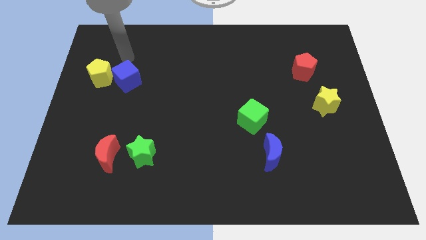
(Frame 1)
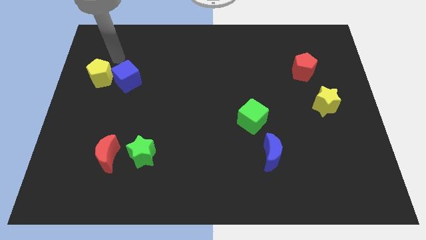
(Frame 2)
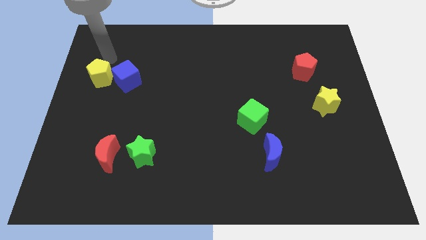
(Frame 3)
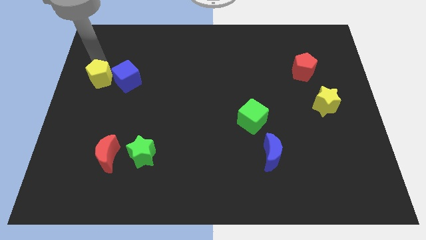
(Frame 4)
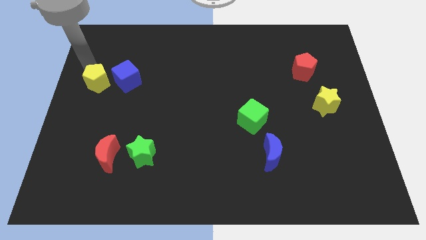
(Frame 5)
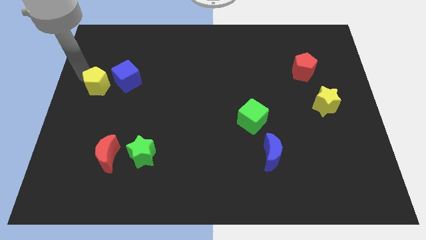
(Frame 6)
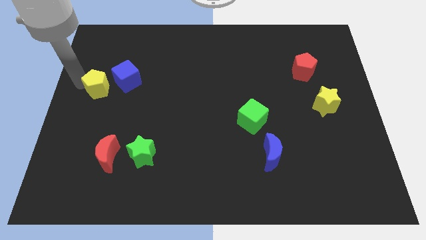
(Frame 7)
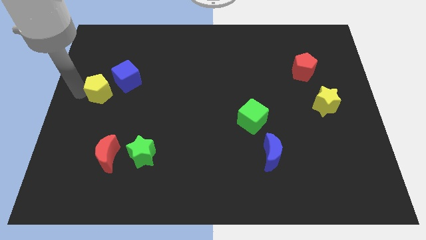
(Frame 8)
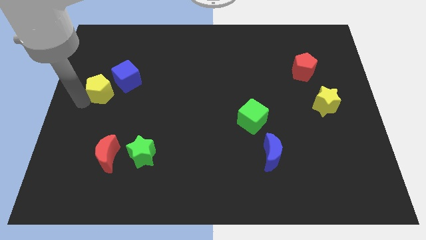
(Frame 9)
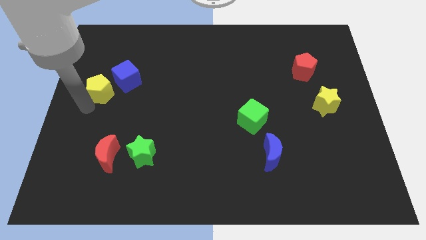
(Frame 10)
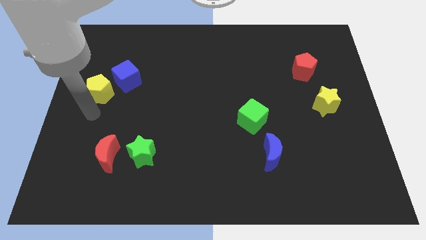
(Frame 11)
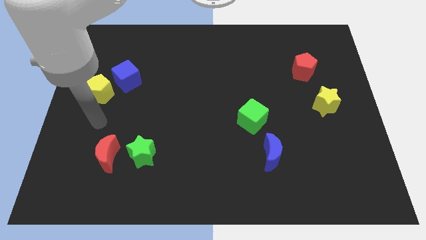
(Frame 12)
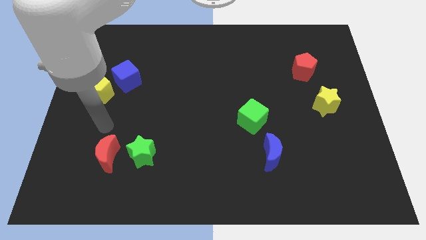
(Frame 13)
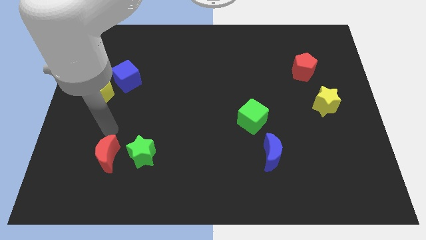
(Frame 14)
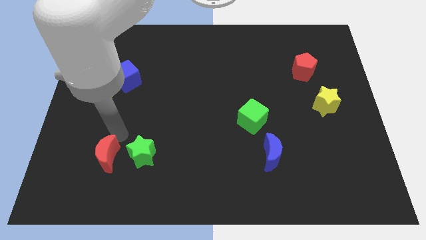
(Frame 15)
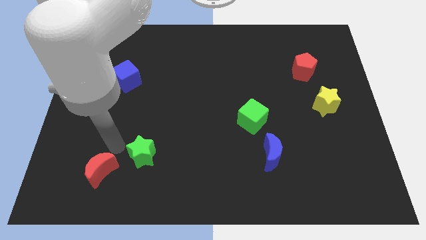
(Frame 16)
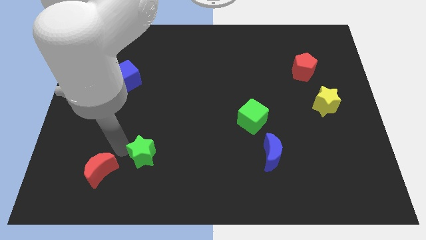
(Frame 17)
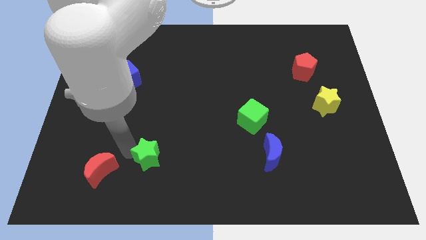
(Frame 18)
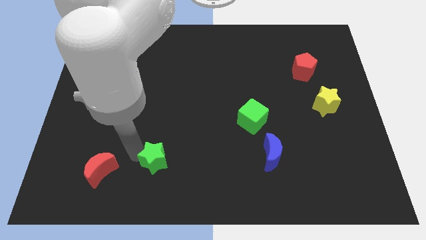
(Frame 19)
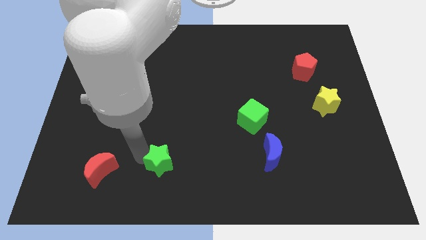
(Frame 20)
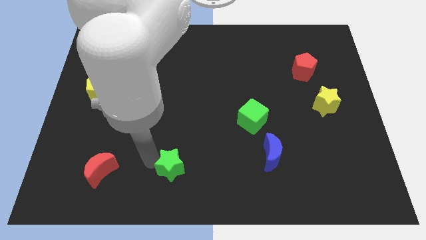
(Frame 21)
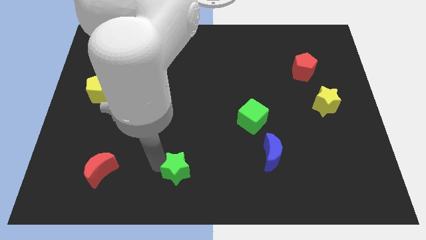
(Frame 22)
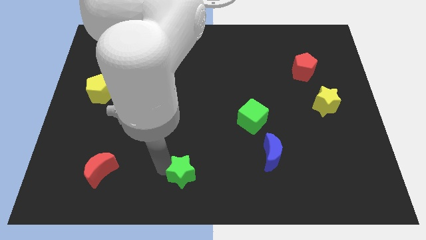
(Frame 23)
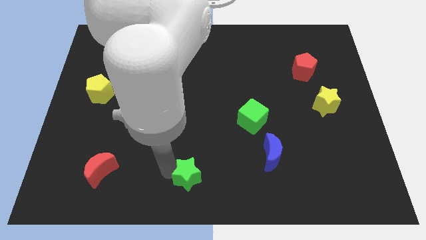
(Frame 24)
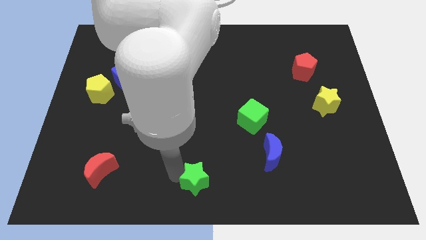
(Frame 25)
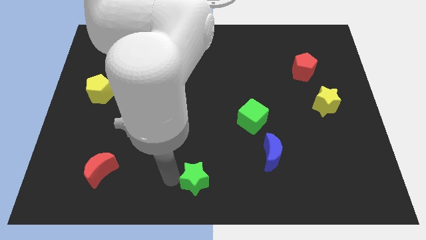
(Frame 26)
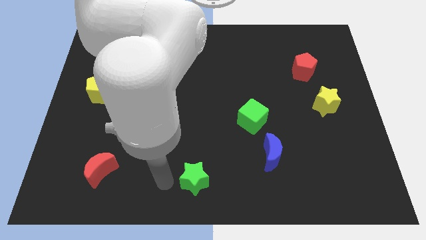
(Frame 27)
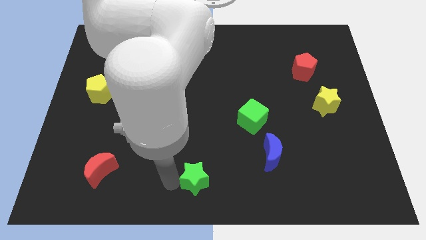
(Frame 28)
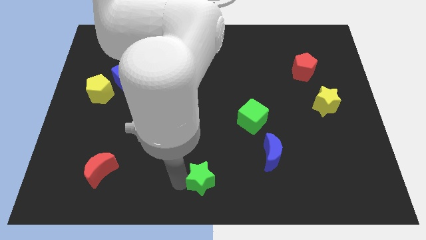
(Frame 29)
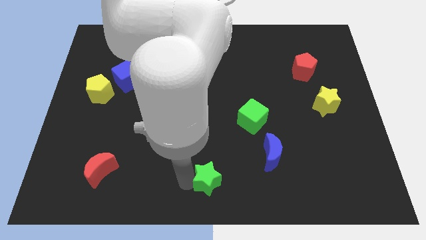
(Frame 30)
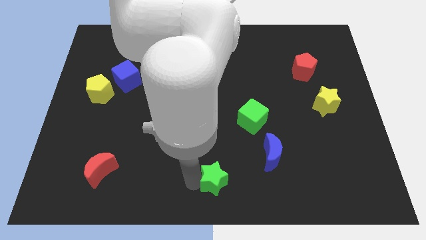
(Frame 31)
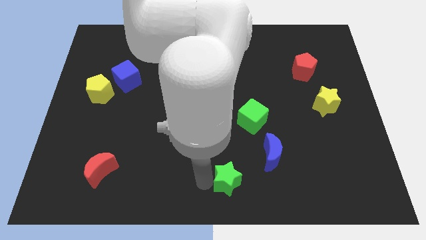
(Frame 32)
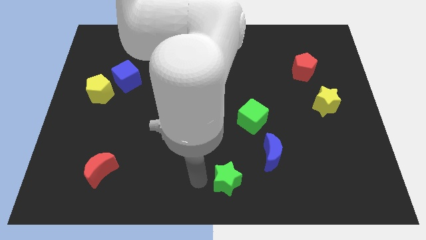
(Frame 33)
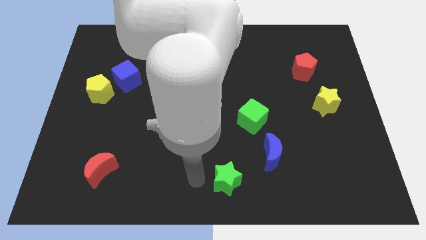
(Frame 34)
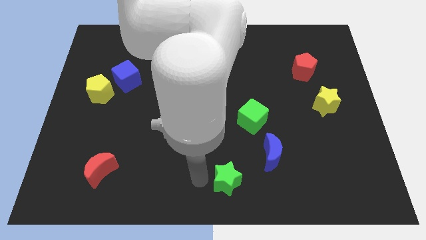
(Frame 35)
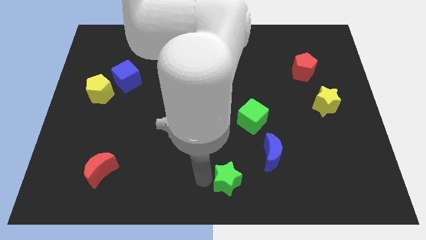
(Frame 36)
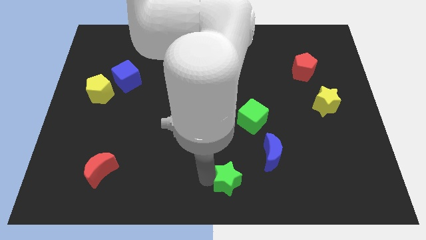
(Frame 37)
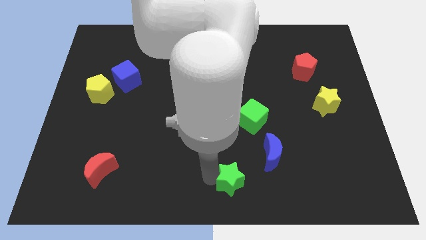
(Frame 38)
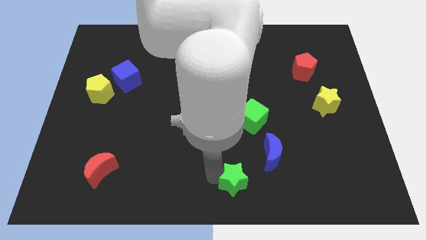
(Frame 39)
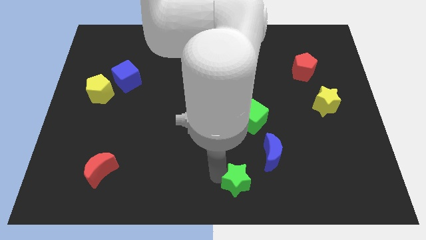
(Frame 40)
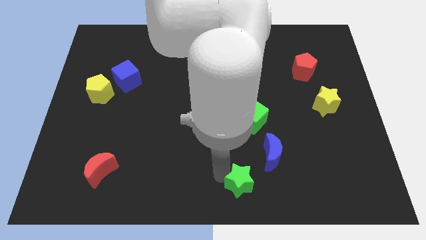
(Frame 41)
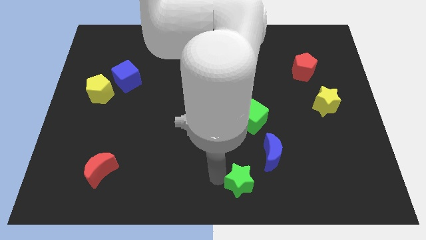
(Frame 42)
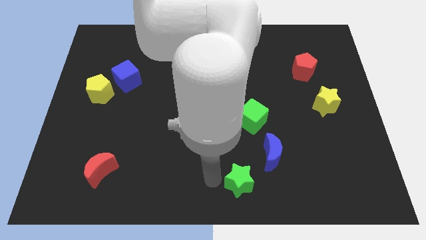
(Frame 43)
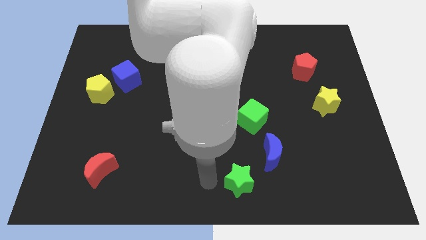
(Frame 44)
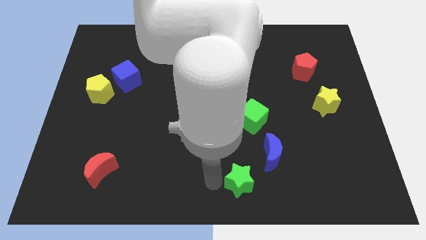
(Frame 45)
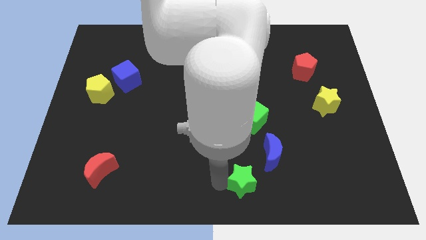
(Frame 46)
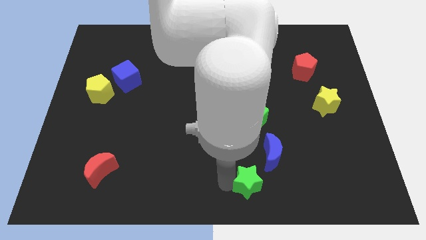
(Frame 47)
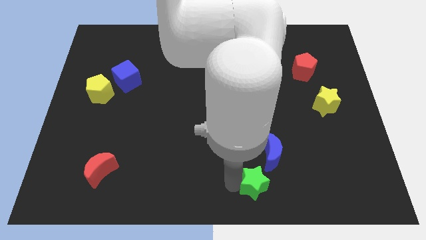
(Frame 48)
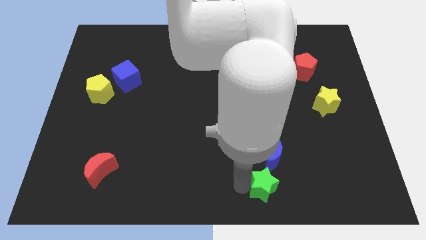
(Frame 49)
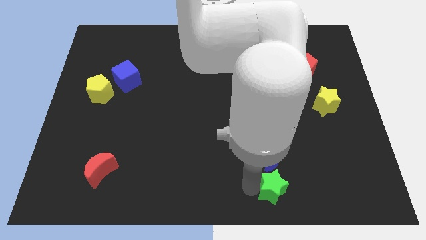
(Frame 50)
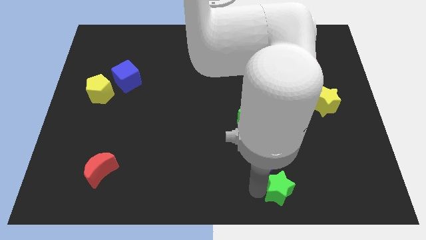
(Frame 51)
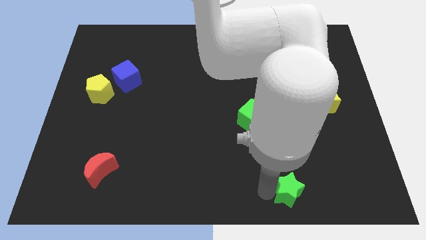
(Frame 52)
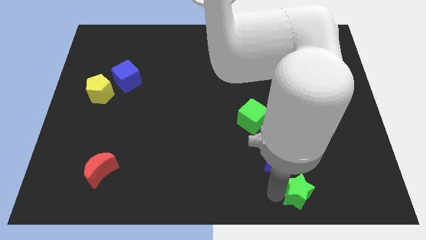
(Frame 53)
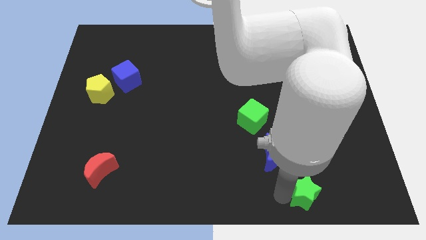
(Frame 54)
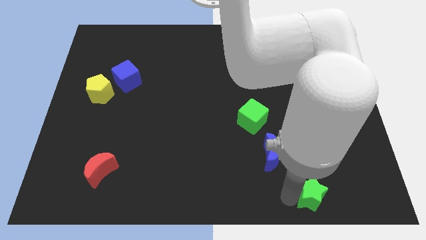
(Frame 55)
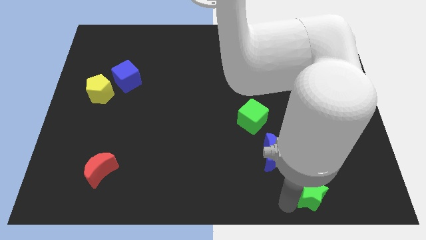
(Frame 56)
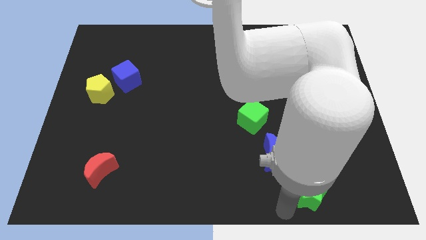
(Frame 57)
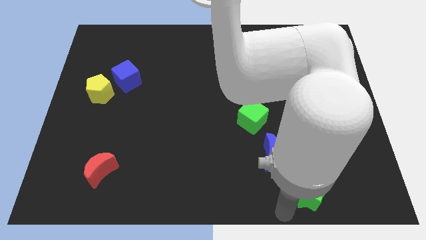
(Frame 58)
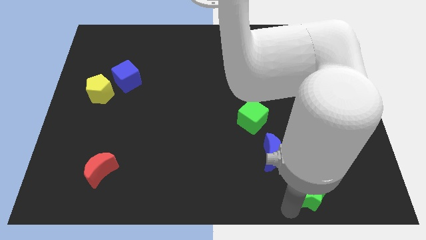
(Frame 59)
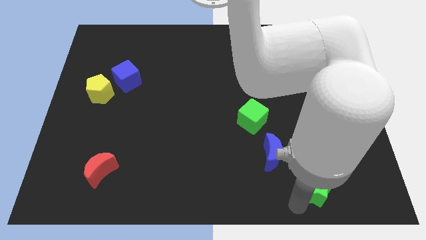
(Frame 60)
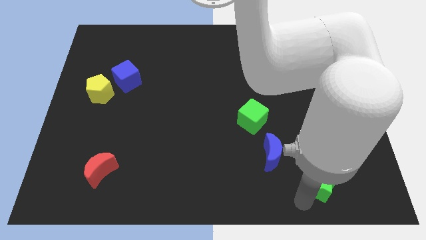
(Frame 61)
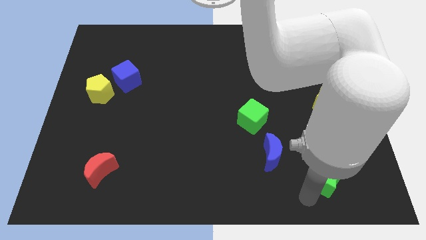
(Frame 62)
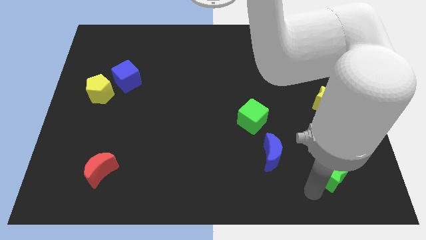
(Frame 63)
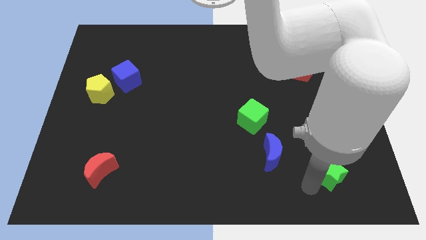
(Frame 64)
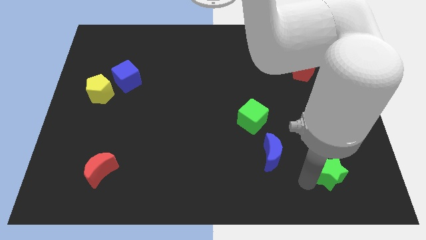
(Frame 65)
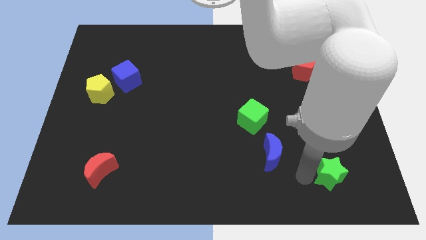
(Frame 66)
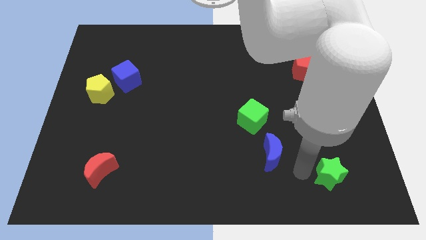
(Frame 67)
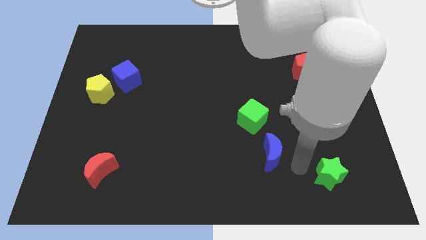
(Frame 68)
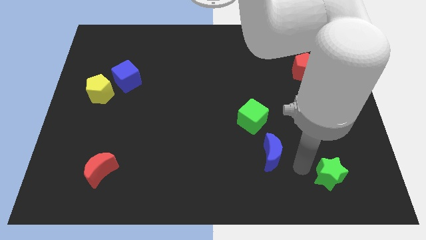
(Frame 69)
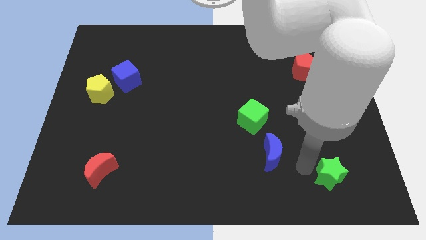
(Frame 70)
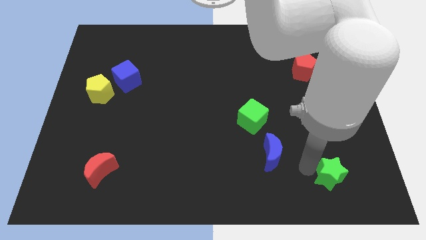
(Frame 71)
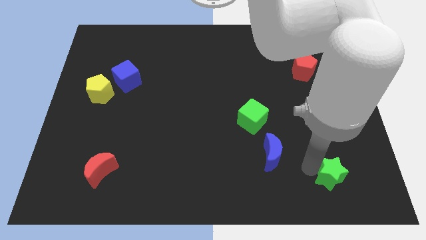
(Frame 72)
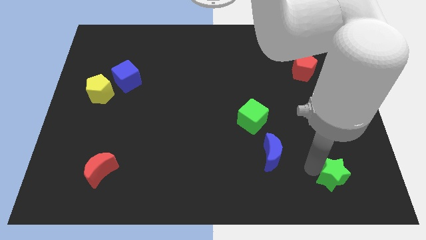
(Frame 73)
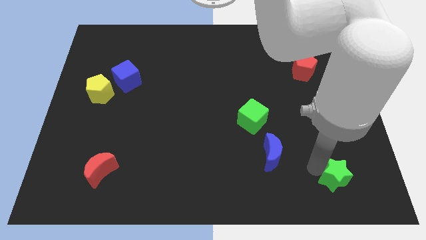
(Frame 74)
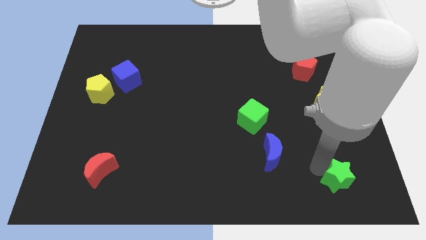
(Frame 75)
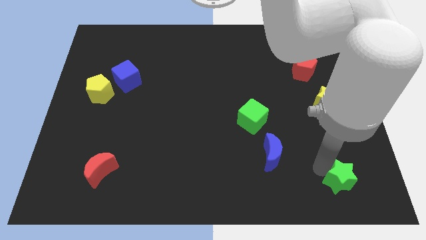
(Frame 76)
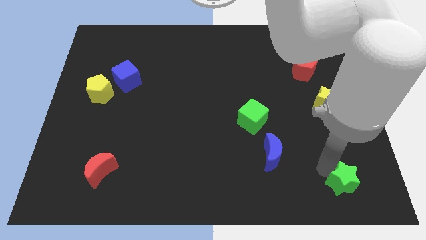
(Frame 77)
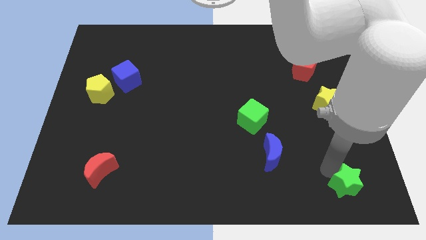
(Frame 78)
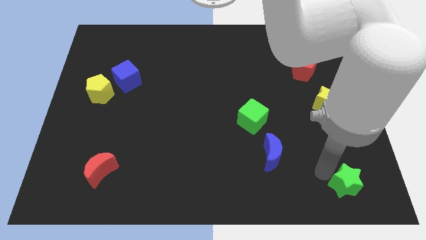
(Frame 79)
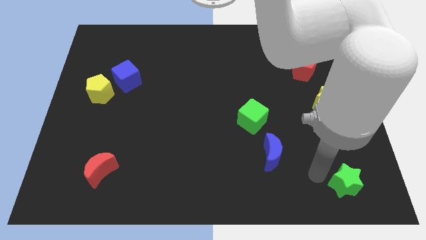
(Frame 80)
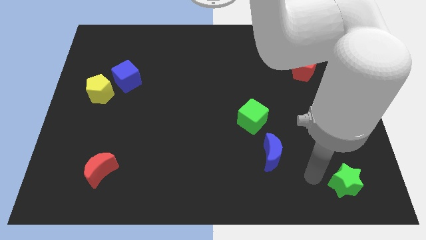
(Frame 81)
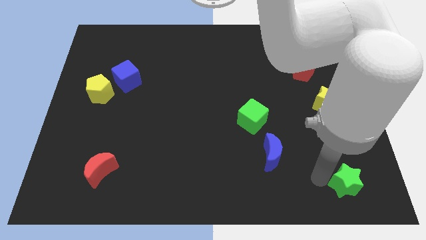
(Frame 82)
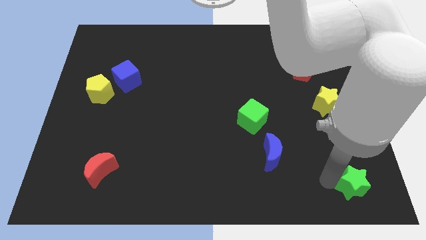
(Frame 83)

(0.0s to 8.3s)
move the green star to the bottom right corner
